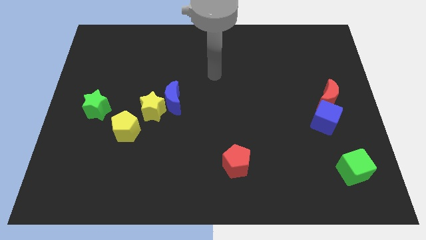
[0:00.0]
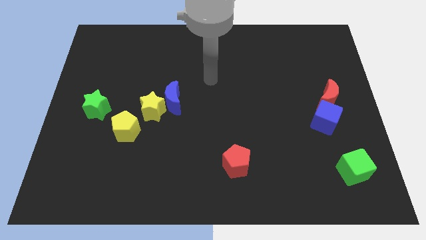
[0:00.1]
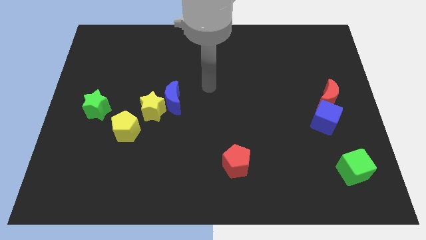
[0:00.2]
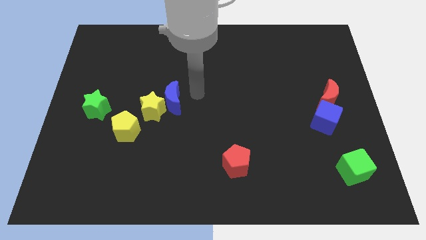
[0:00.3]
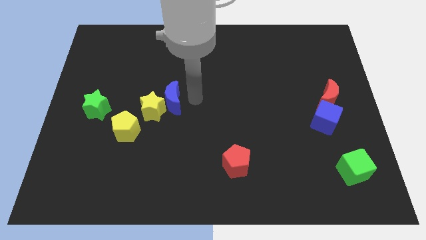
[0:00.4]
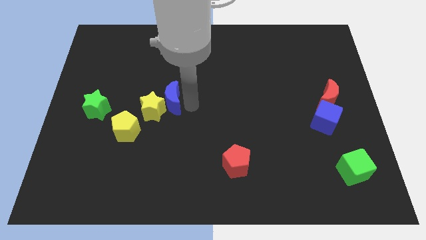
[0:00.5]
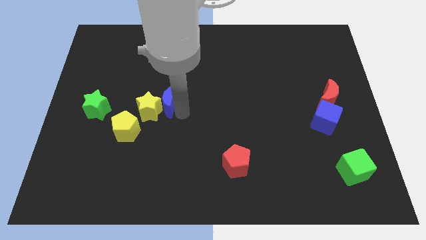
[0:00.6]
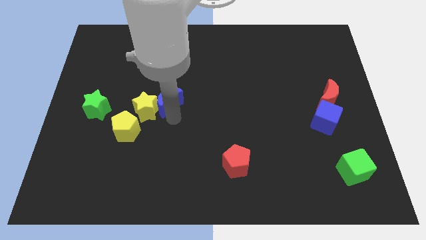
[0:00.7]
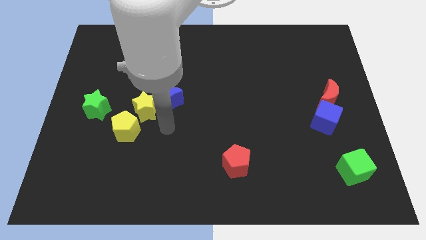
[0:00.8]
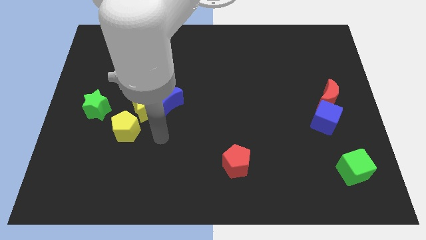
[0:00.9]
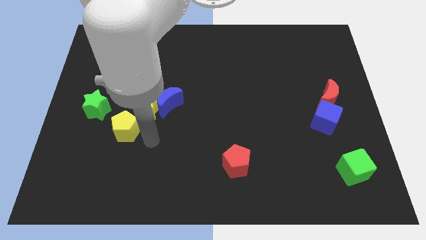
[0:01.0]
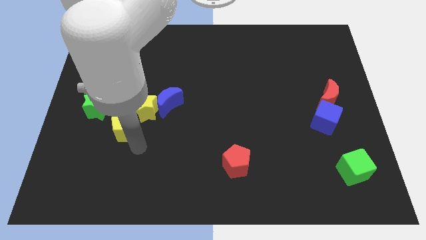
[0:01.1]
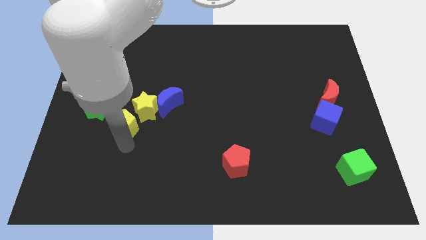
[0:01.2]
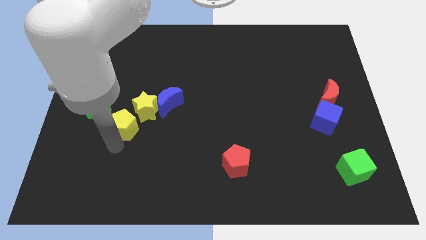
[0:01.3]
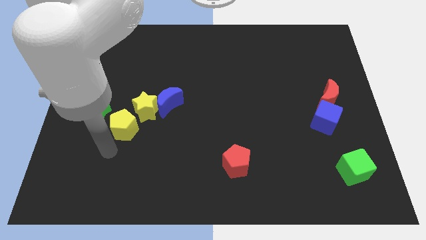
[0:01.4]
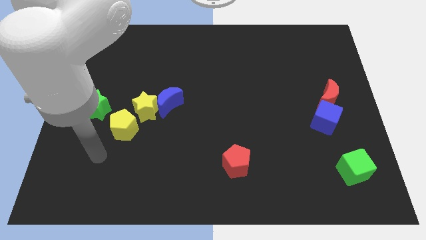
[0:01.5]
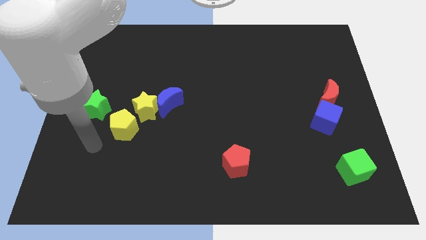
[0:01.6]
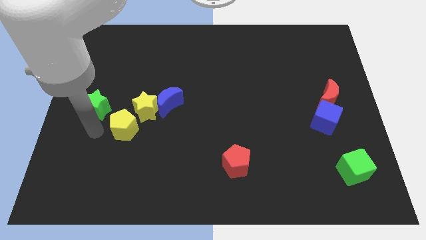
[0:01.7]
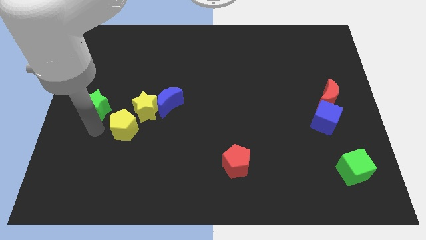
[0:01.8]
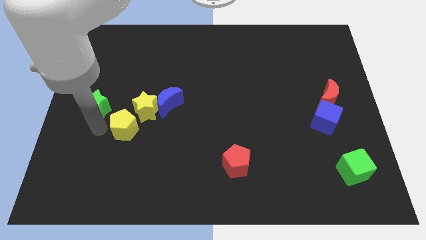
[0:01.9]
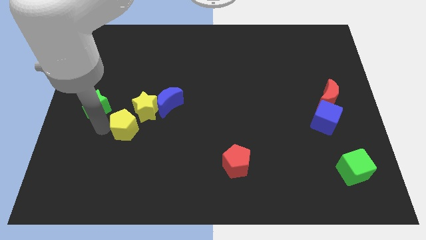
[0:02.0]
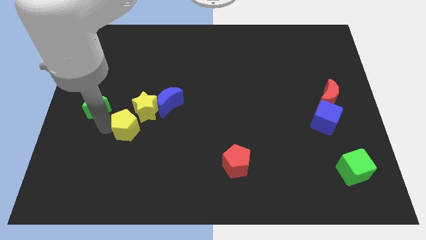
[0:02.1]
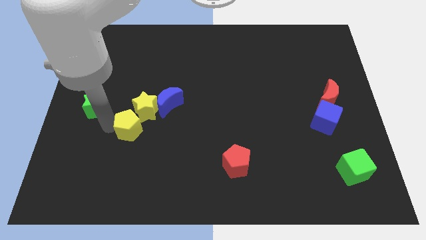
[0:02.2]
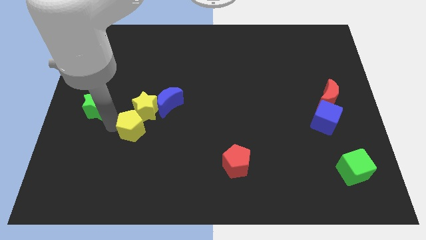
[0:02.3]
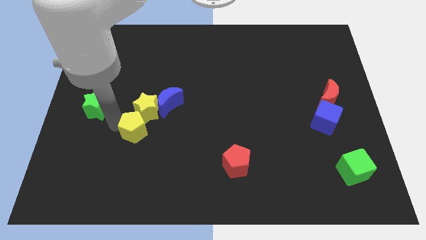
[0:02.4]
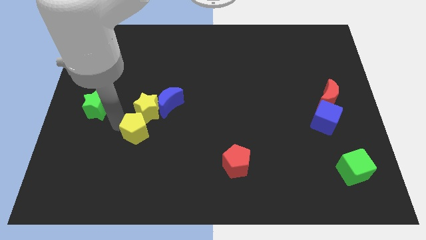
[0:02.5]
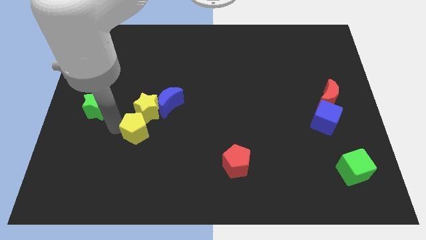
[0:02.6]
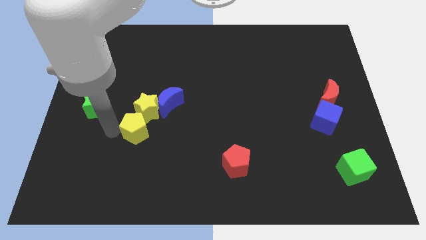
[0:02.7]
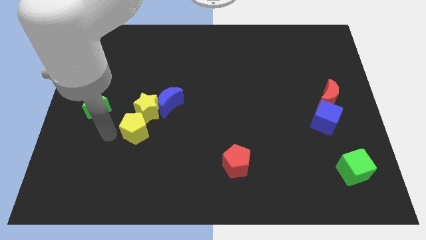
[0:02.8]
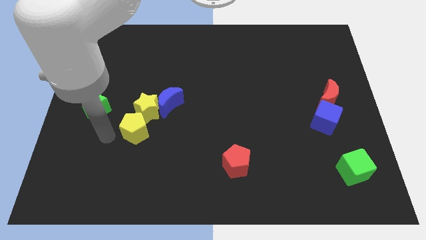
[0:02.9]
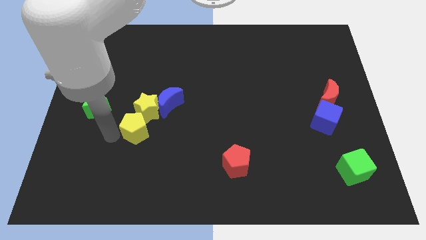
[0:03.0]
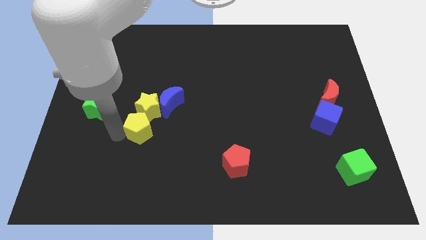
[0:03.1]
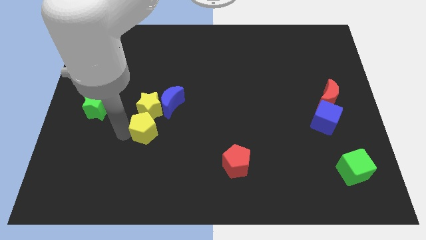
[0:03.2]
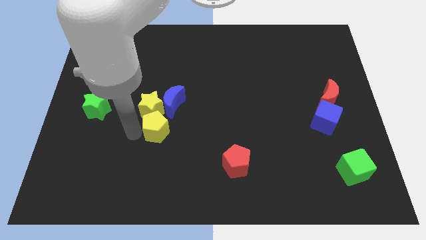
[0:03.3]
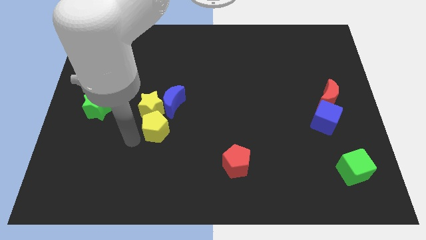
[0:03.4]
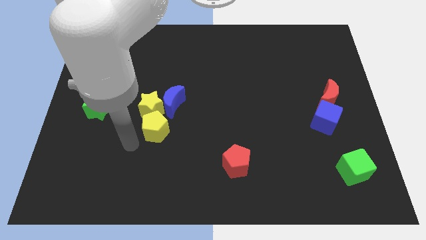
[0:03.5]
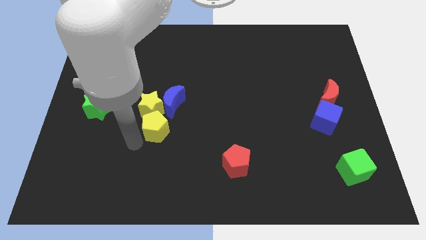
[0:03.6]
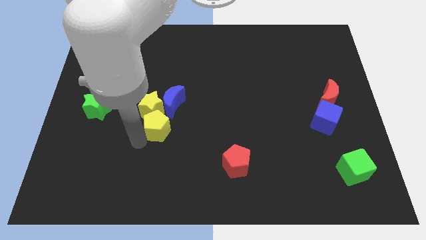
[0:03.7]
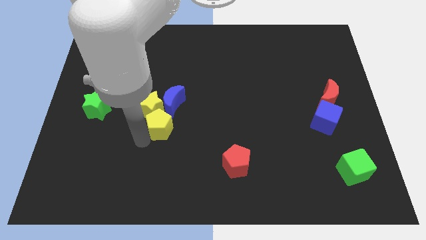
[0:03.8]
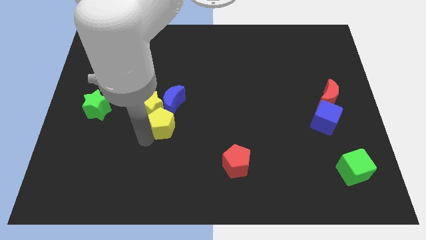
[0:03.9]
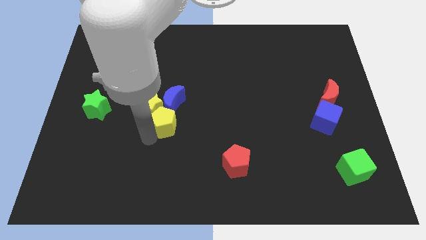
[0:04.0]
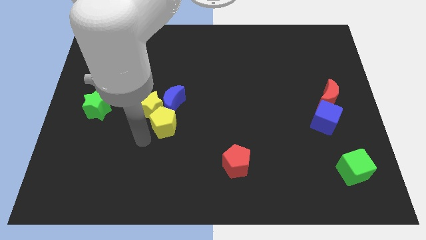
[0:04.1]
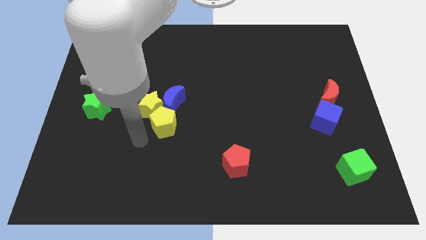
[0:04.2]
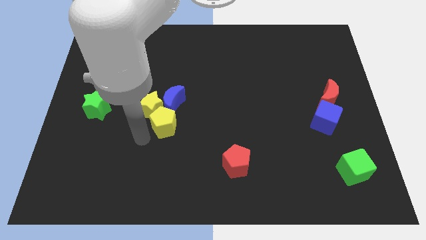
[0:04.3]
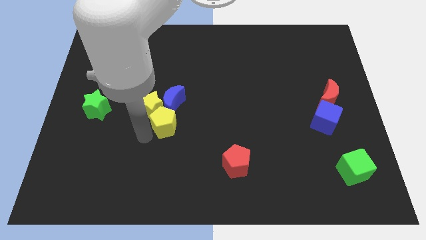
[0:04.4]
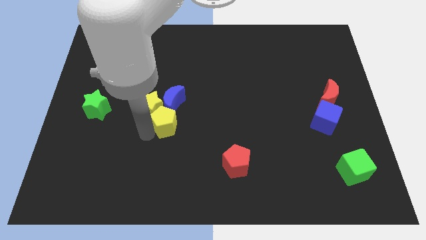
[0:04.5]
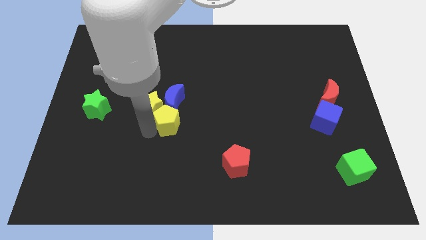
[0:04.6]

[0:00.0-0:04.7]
put the yellow pentagon to the middle of the board

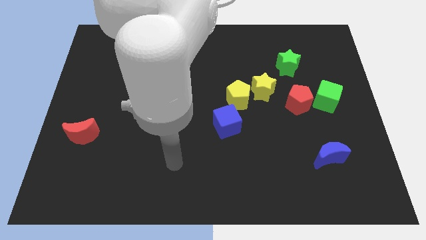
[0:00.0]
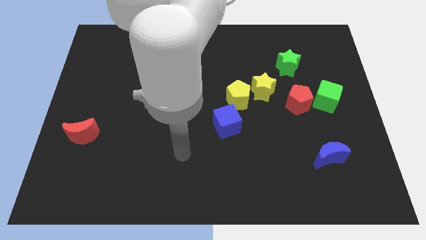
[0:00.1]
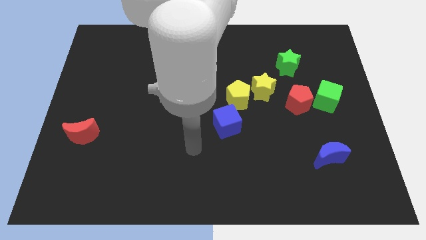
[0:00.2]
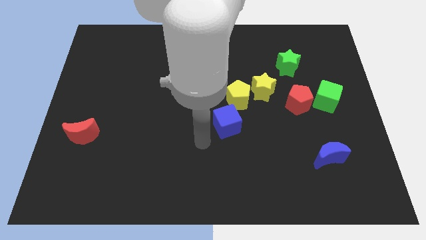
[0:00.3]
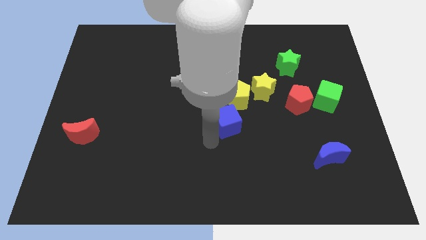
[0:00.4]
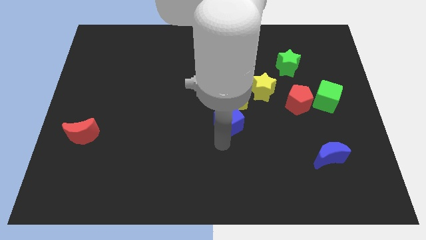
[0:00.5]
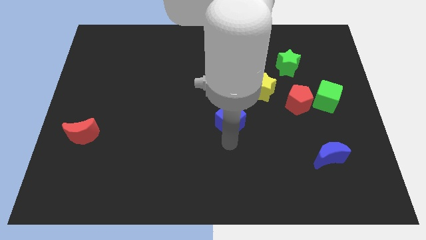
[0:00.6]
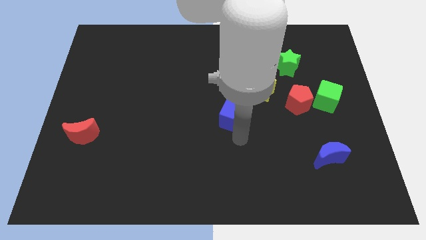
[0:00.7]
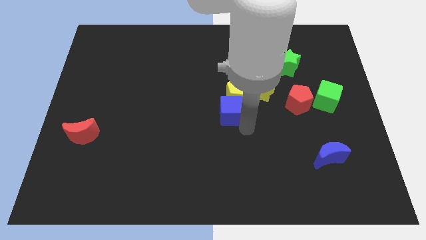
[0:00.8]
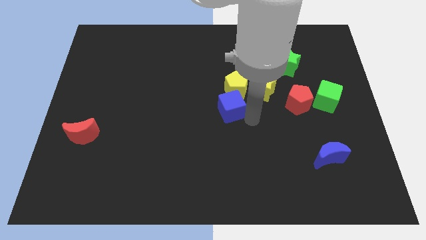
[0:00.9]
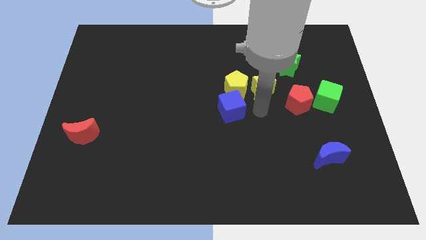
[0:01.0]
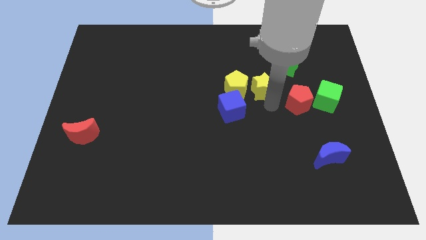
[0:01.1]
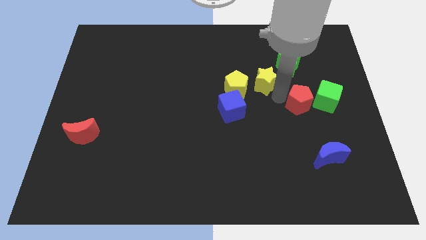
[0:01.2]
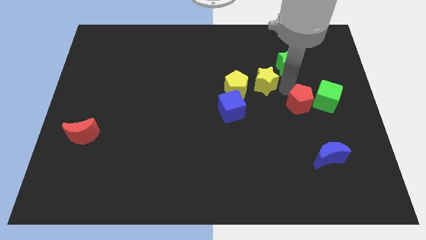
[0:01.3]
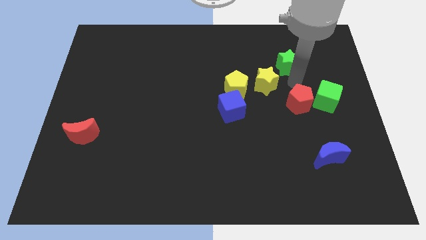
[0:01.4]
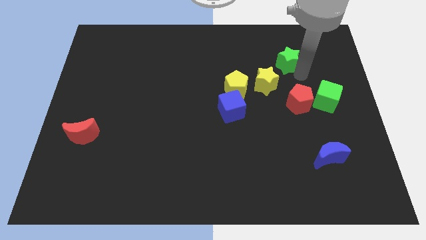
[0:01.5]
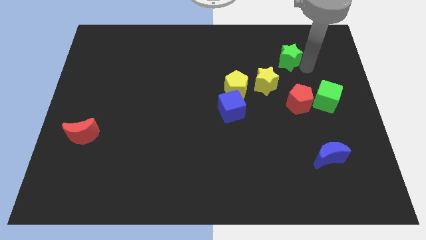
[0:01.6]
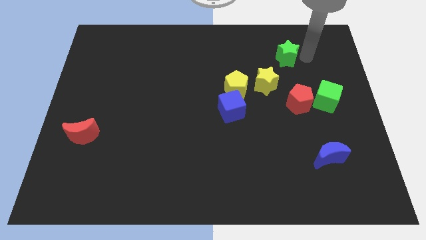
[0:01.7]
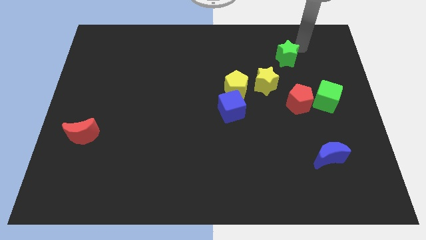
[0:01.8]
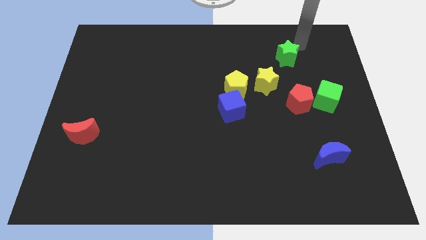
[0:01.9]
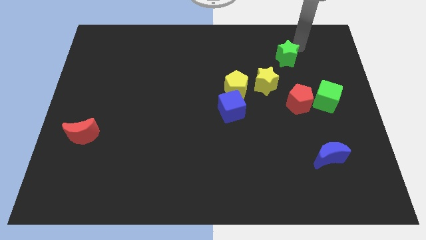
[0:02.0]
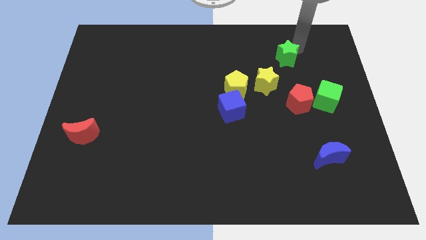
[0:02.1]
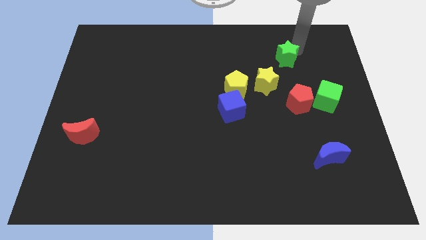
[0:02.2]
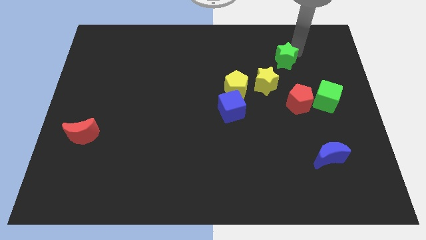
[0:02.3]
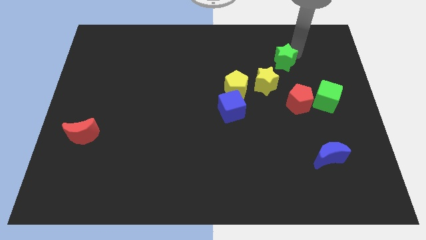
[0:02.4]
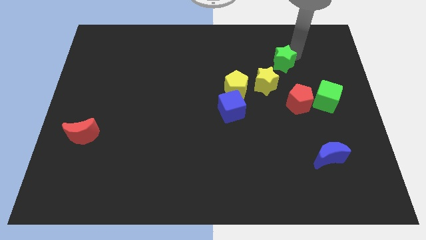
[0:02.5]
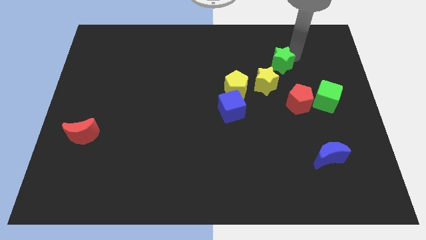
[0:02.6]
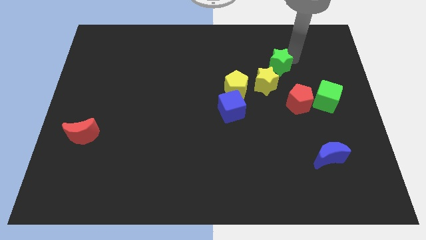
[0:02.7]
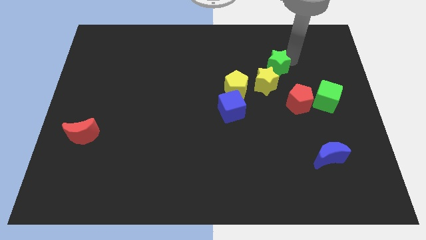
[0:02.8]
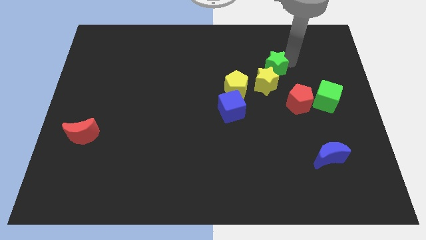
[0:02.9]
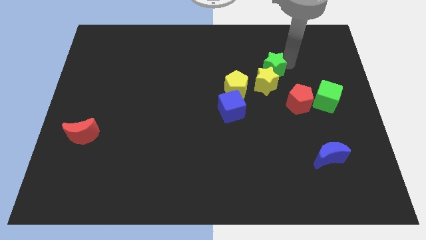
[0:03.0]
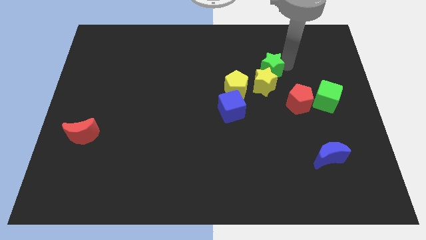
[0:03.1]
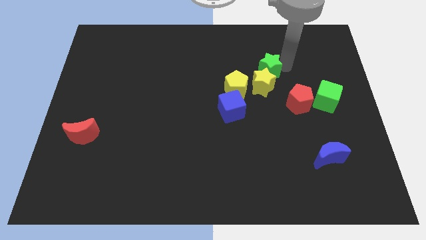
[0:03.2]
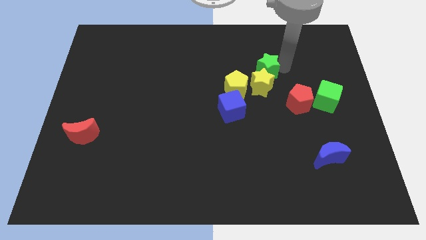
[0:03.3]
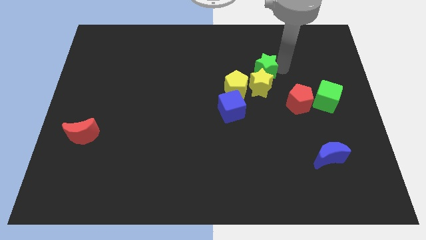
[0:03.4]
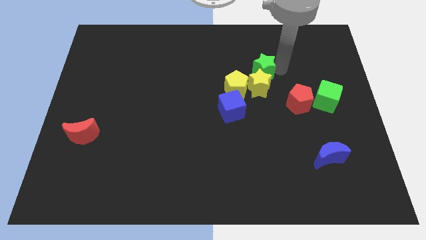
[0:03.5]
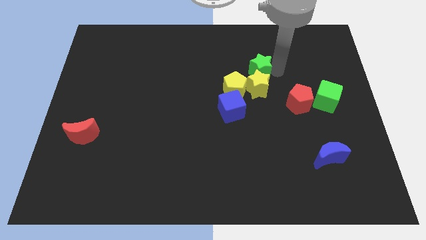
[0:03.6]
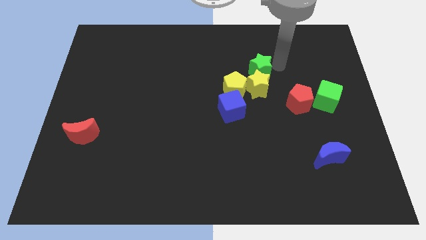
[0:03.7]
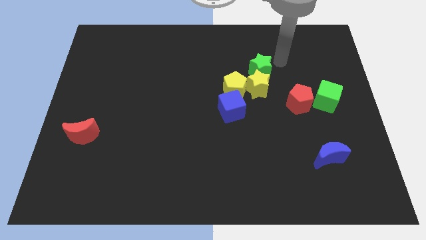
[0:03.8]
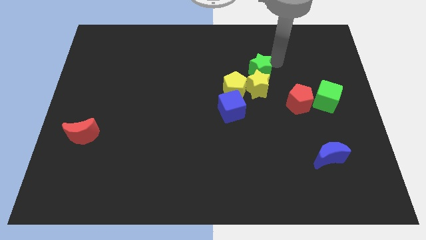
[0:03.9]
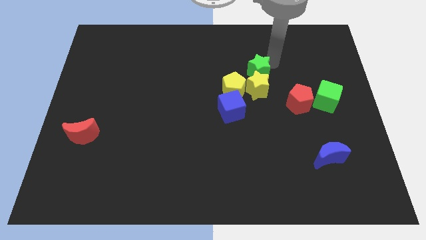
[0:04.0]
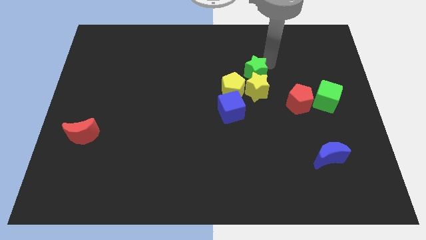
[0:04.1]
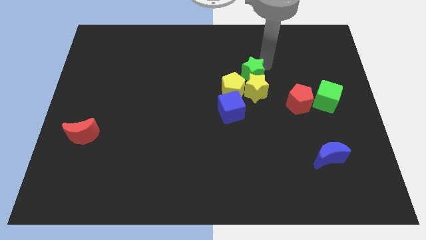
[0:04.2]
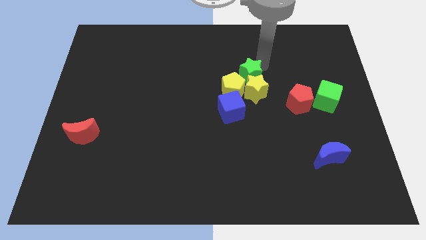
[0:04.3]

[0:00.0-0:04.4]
push the green star to the middle of the board
